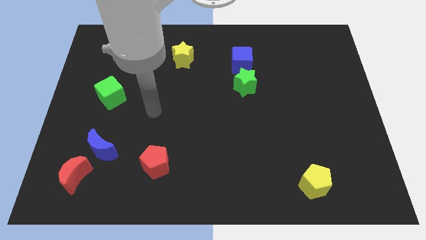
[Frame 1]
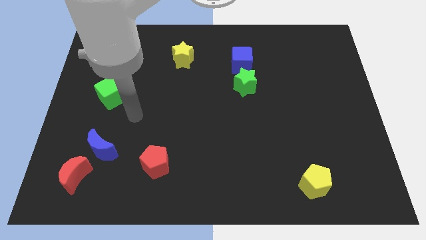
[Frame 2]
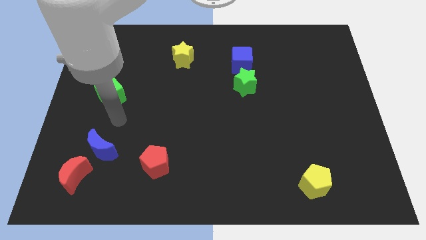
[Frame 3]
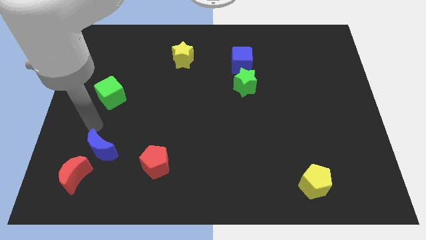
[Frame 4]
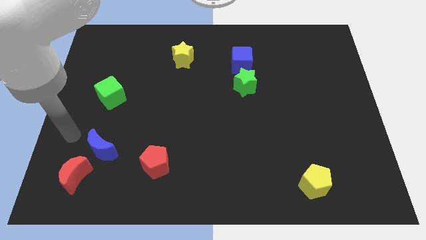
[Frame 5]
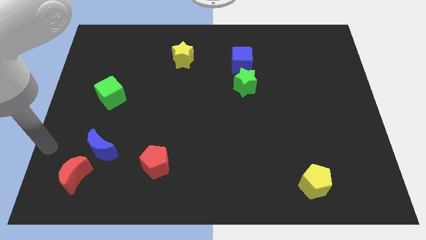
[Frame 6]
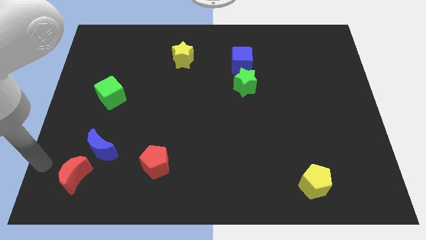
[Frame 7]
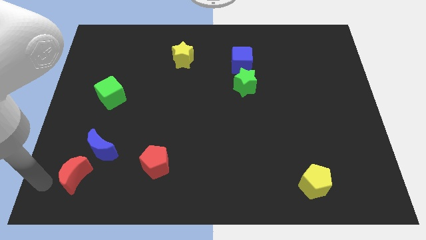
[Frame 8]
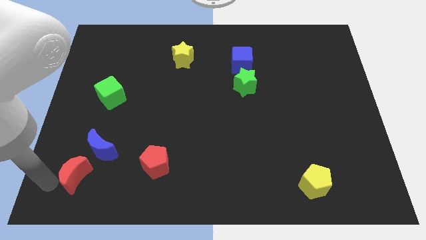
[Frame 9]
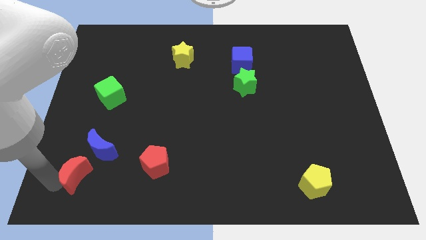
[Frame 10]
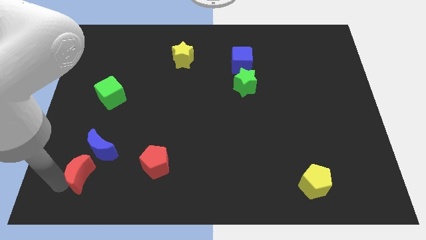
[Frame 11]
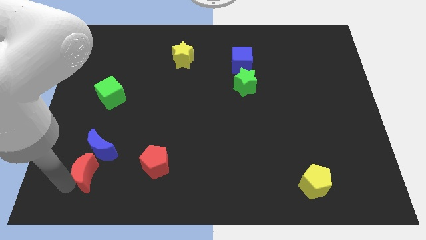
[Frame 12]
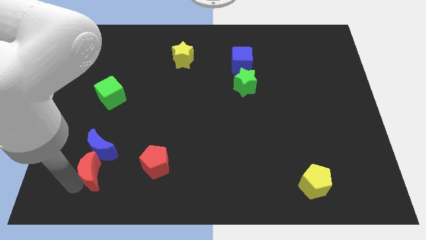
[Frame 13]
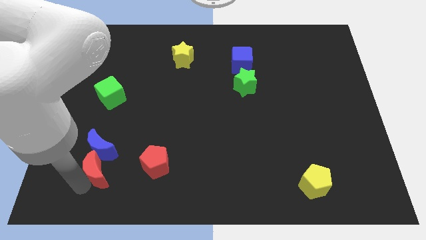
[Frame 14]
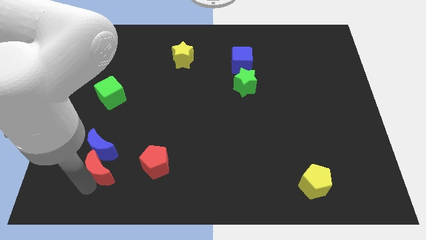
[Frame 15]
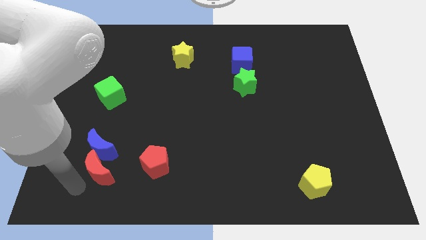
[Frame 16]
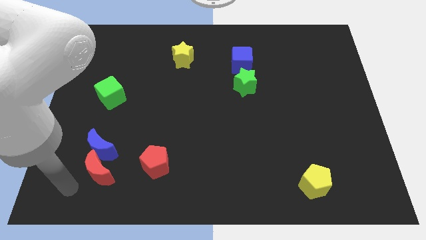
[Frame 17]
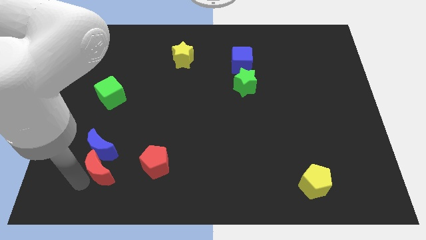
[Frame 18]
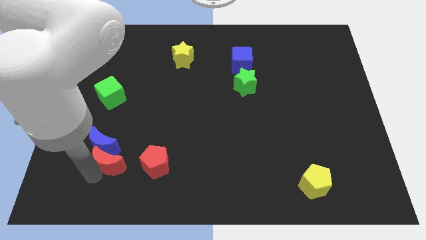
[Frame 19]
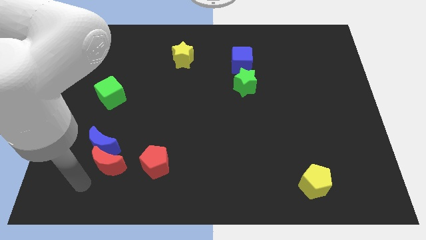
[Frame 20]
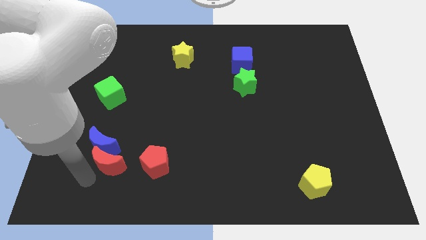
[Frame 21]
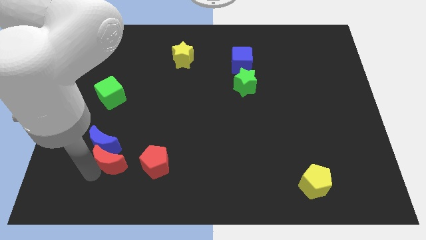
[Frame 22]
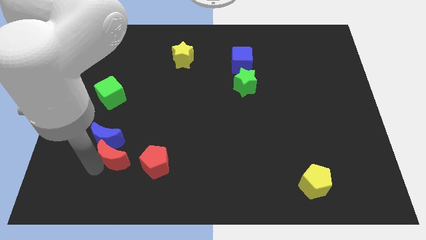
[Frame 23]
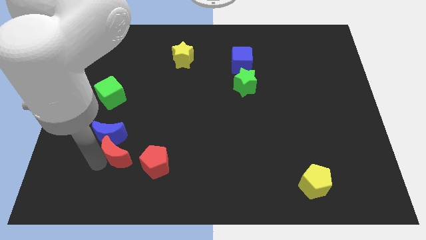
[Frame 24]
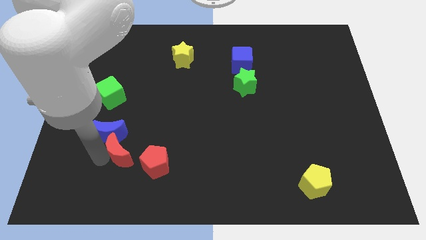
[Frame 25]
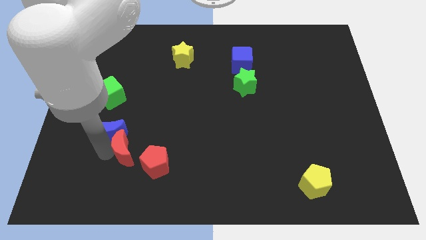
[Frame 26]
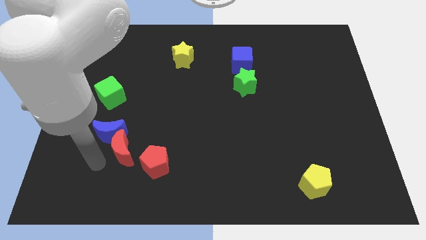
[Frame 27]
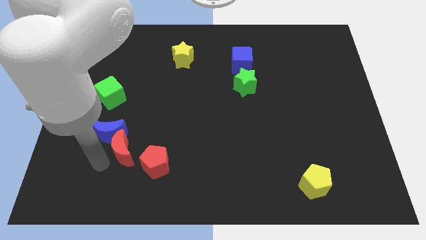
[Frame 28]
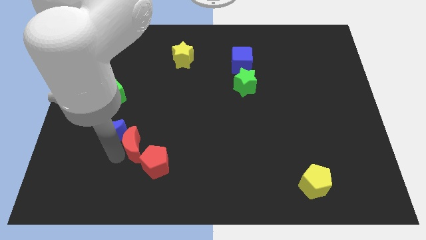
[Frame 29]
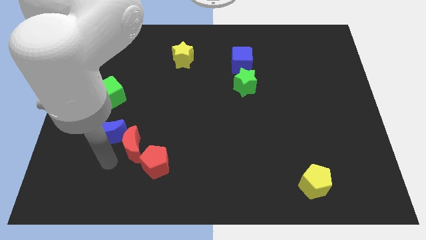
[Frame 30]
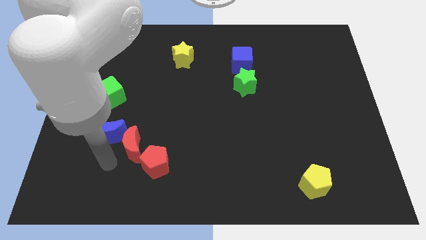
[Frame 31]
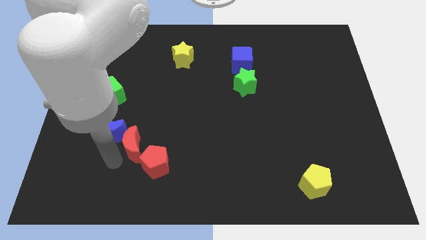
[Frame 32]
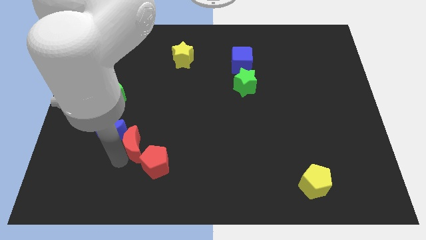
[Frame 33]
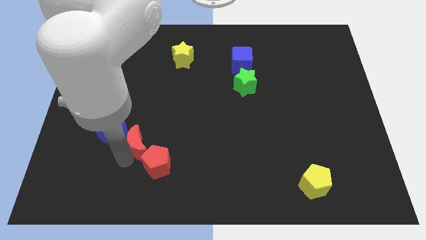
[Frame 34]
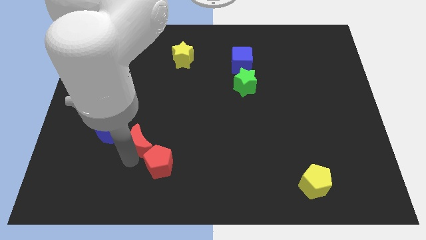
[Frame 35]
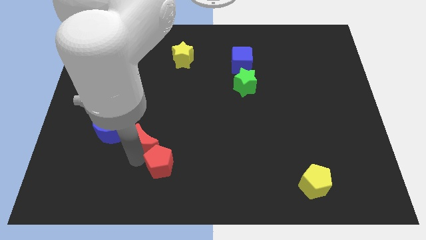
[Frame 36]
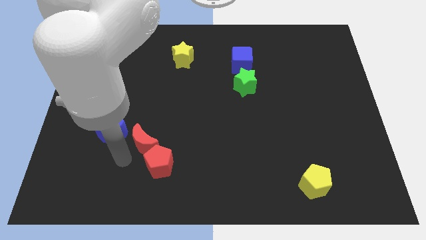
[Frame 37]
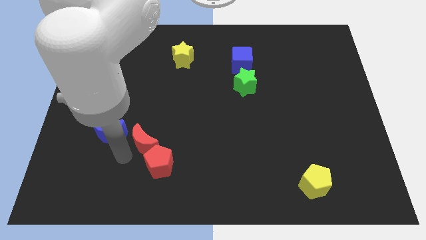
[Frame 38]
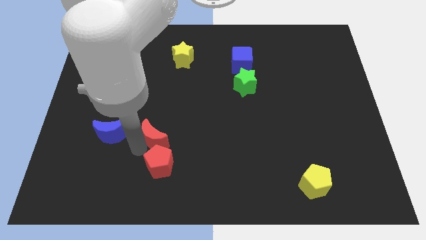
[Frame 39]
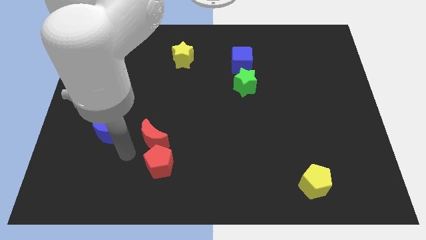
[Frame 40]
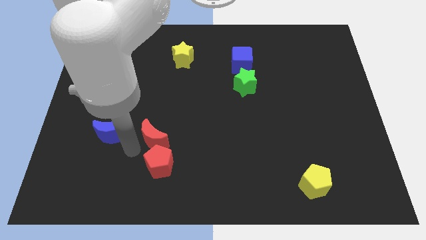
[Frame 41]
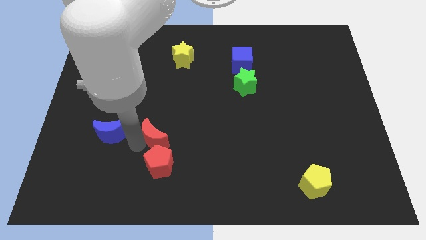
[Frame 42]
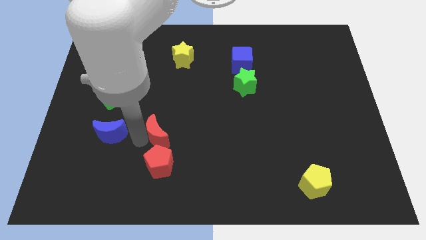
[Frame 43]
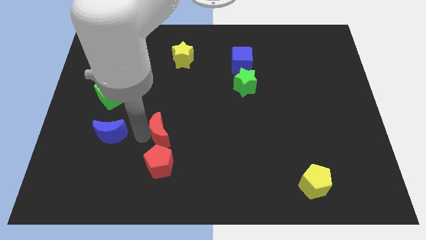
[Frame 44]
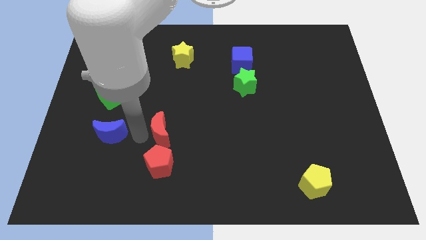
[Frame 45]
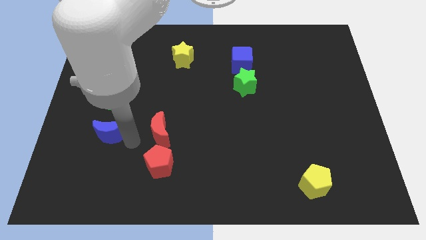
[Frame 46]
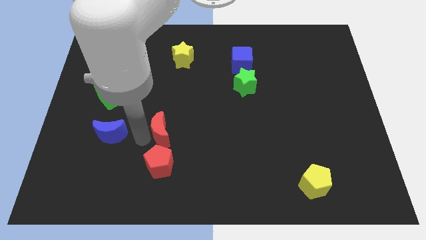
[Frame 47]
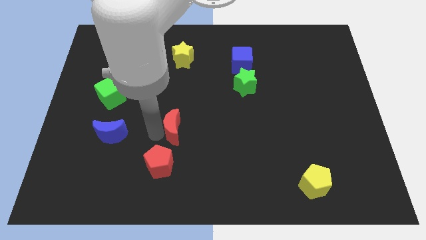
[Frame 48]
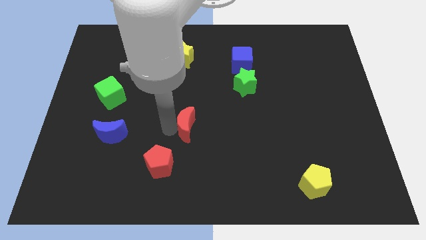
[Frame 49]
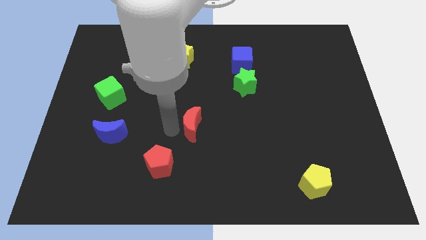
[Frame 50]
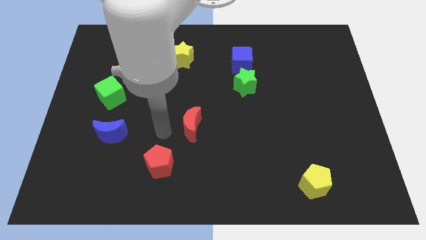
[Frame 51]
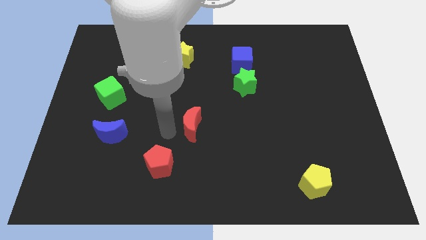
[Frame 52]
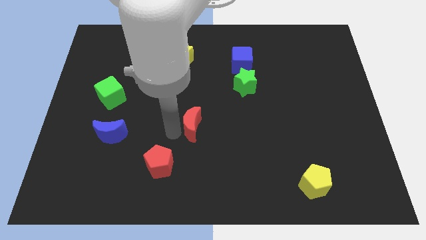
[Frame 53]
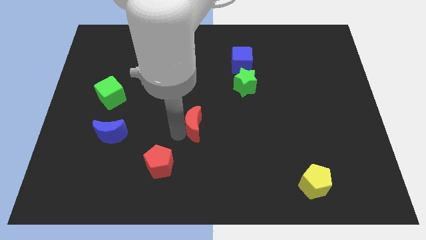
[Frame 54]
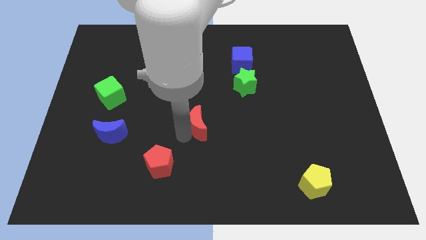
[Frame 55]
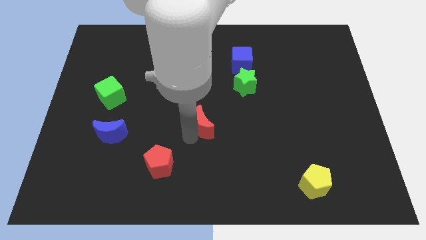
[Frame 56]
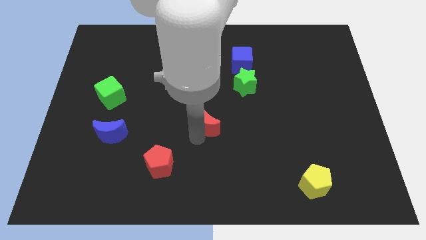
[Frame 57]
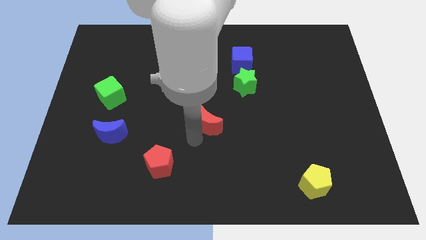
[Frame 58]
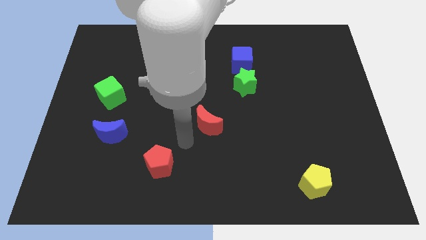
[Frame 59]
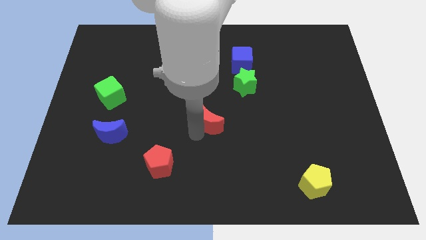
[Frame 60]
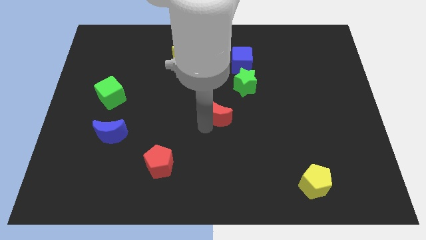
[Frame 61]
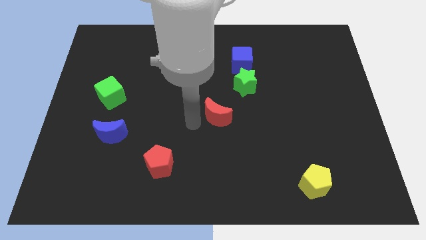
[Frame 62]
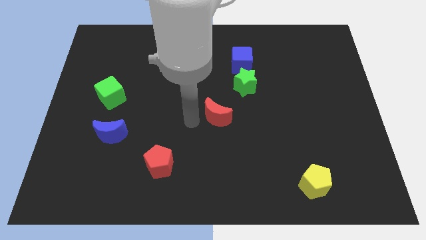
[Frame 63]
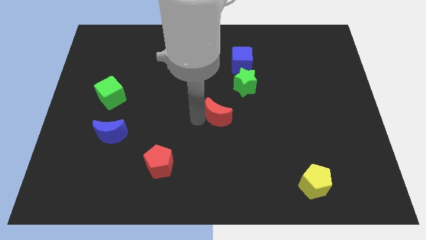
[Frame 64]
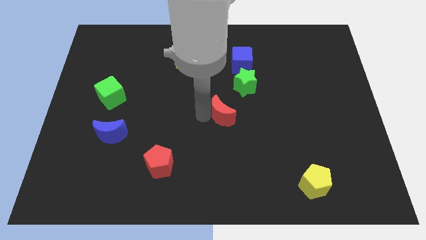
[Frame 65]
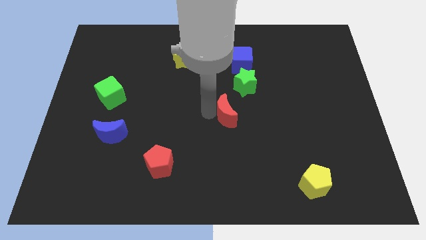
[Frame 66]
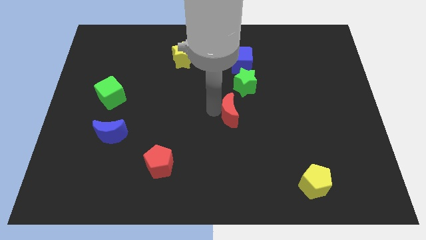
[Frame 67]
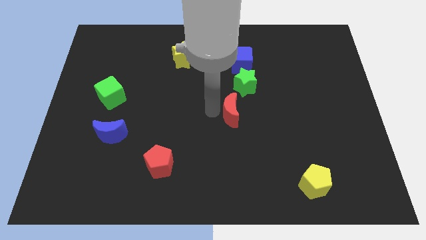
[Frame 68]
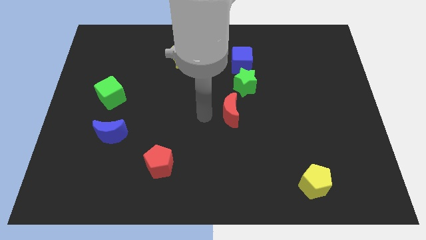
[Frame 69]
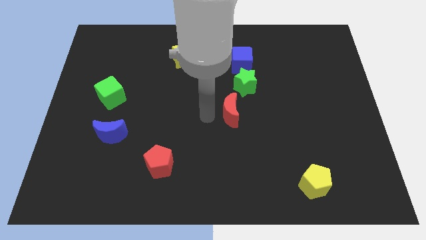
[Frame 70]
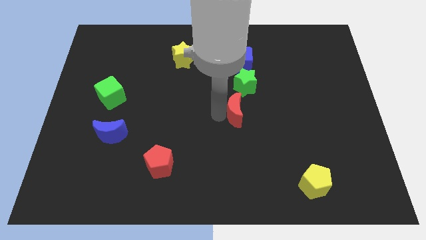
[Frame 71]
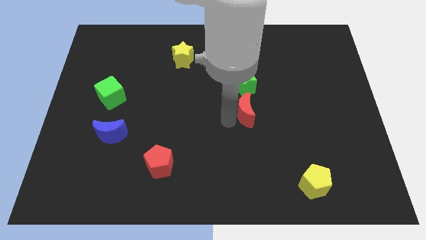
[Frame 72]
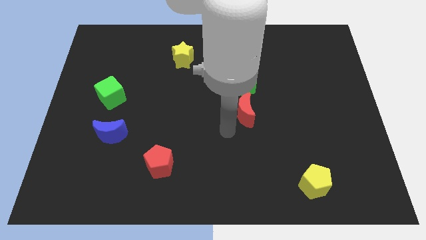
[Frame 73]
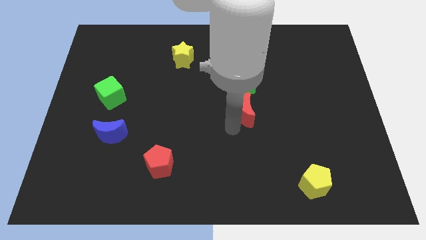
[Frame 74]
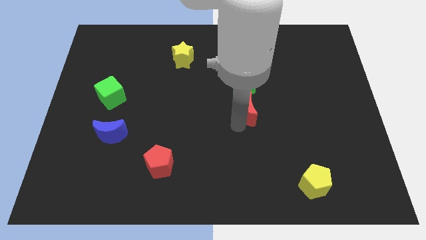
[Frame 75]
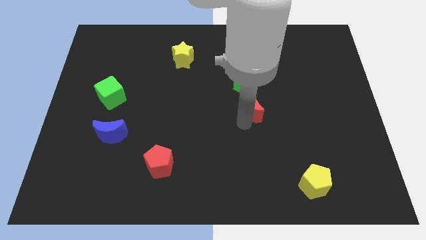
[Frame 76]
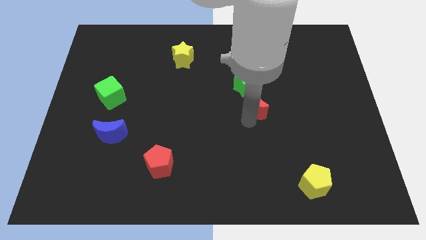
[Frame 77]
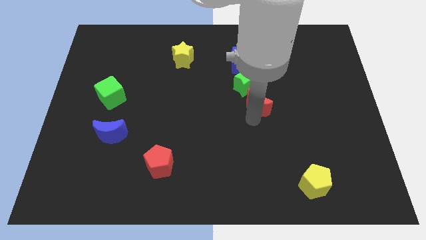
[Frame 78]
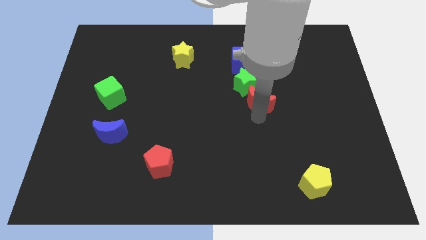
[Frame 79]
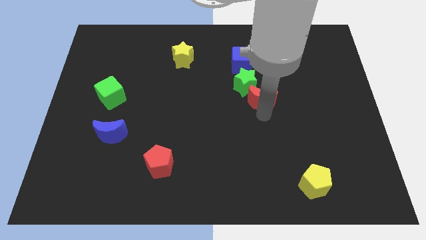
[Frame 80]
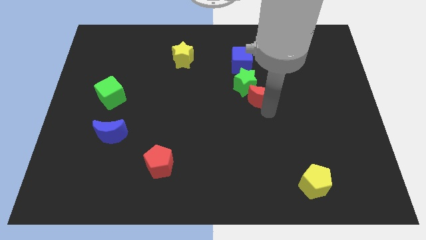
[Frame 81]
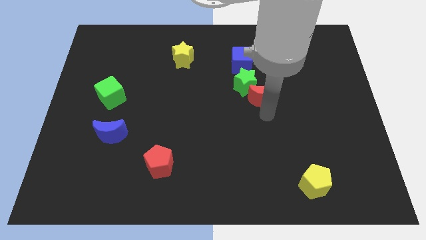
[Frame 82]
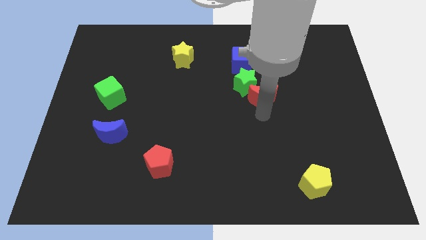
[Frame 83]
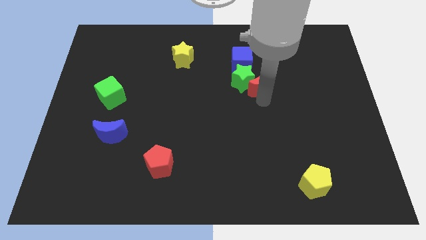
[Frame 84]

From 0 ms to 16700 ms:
put the red moon to the top right side of the green star
